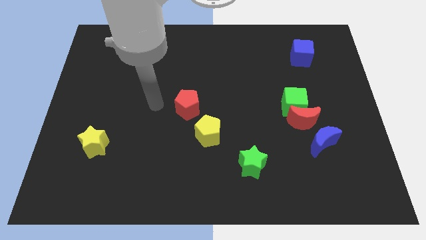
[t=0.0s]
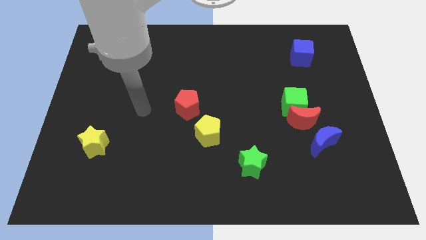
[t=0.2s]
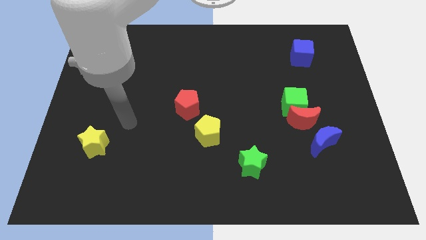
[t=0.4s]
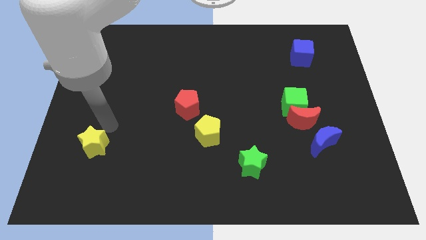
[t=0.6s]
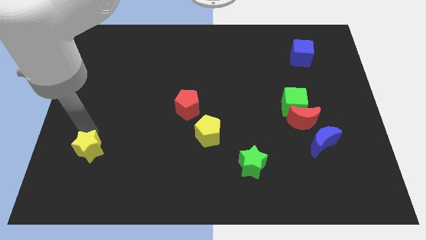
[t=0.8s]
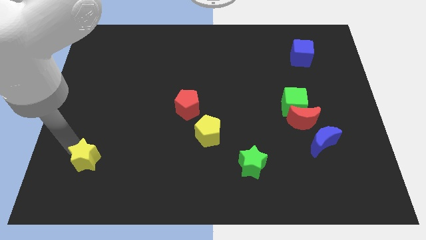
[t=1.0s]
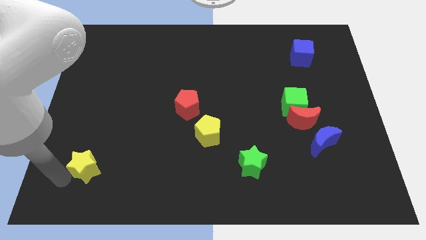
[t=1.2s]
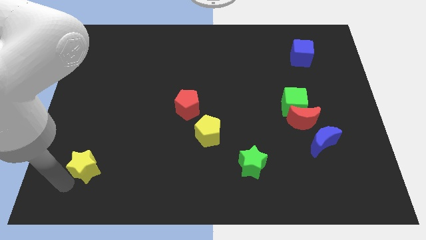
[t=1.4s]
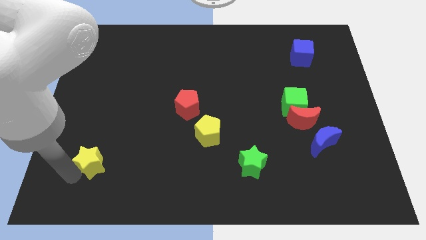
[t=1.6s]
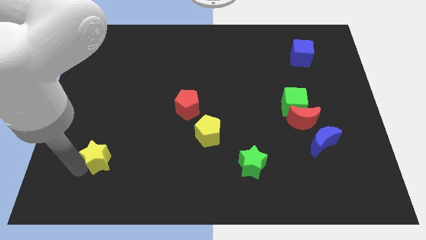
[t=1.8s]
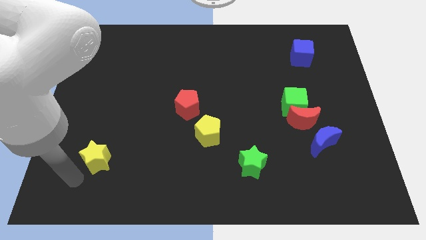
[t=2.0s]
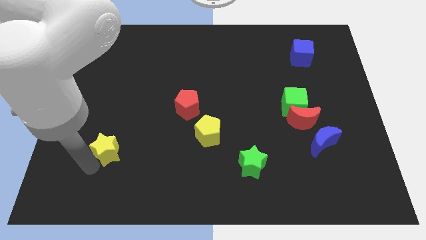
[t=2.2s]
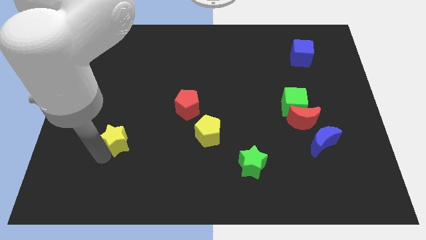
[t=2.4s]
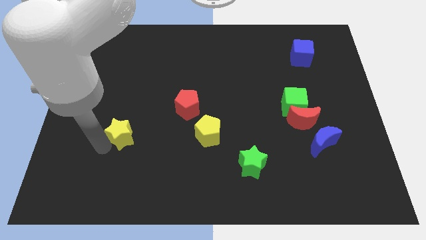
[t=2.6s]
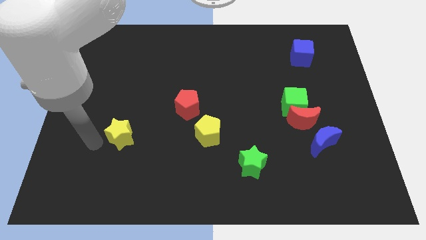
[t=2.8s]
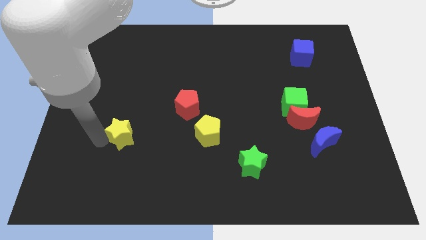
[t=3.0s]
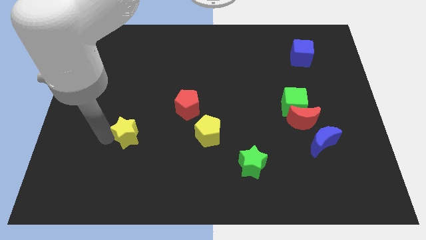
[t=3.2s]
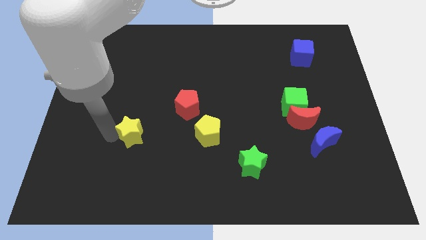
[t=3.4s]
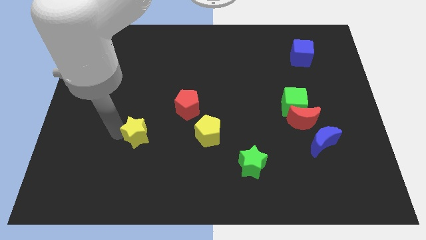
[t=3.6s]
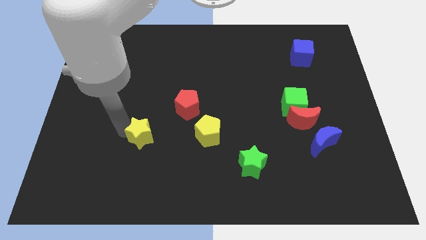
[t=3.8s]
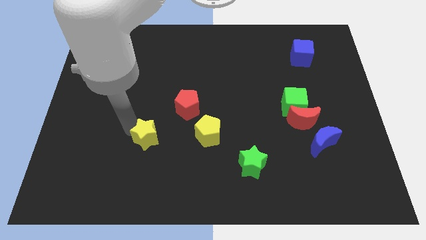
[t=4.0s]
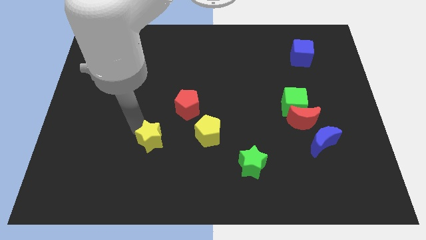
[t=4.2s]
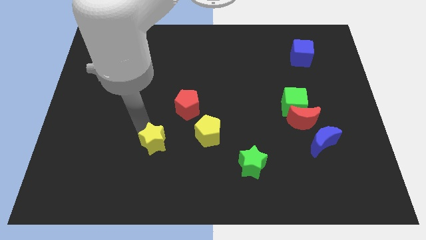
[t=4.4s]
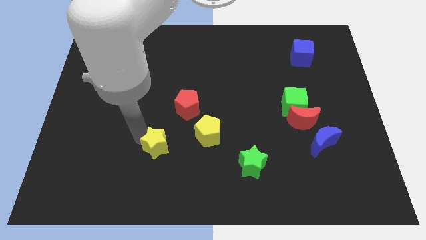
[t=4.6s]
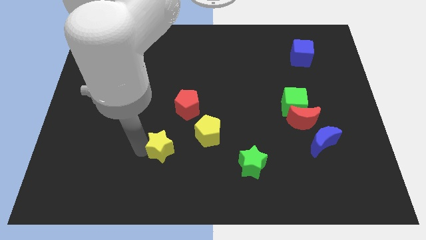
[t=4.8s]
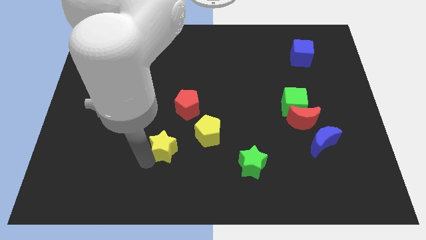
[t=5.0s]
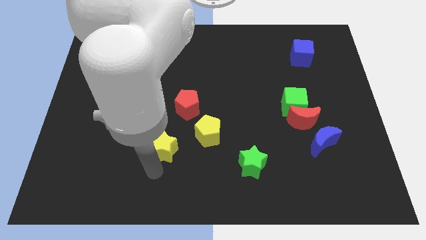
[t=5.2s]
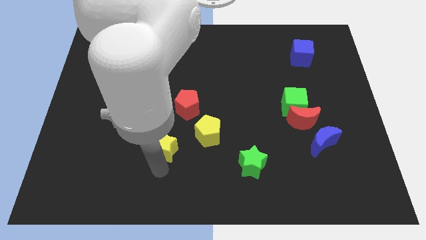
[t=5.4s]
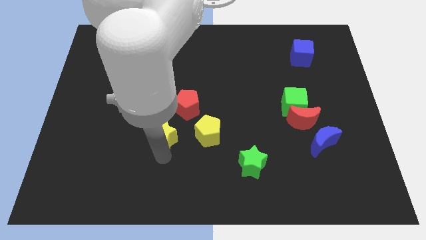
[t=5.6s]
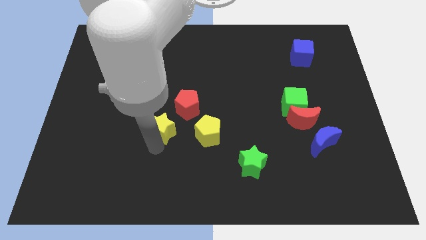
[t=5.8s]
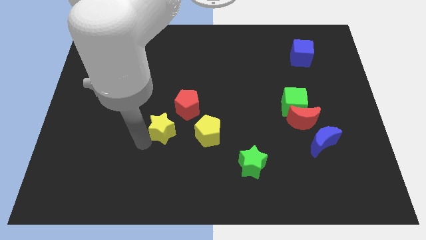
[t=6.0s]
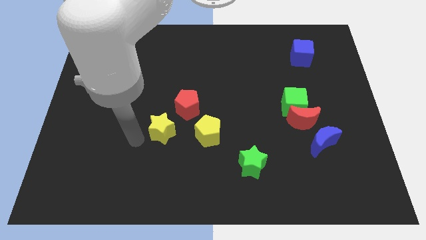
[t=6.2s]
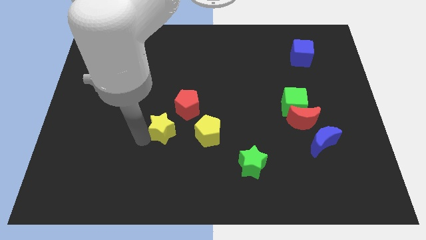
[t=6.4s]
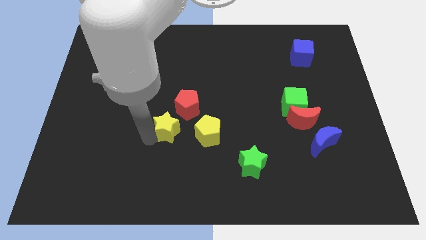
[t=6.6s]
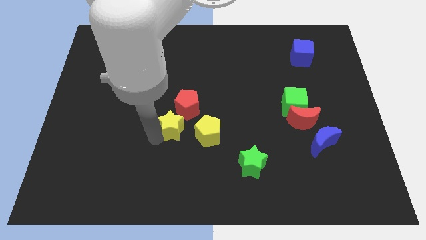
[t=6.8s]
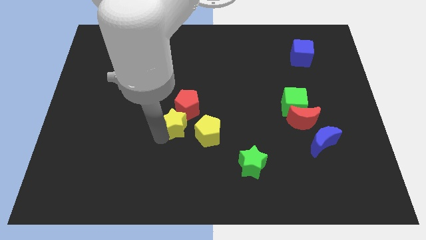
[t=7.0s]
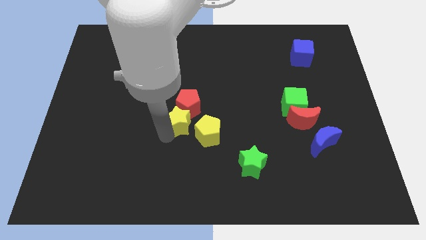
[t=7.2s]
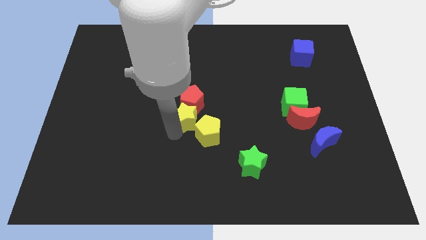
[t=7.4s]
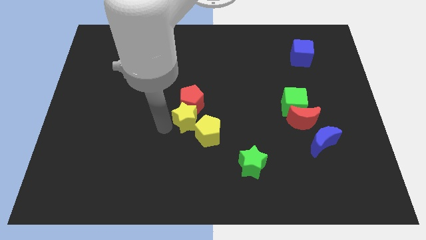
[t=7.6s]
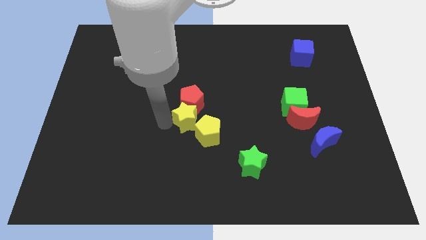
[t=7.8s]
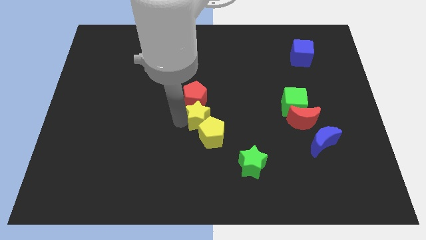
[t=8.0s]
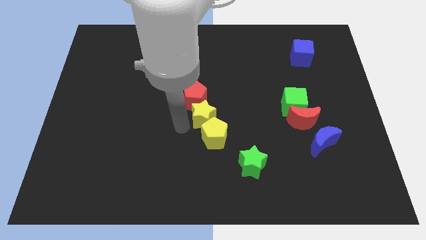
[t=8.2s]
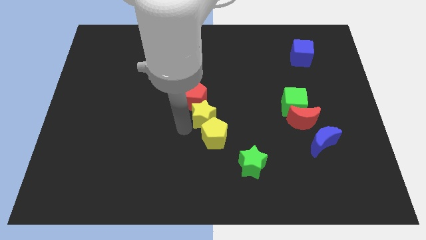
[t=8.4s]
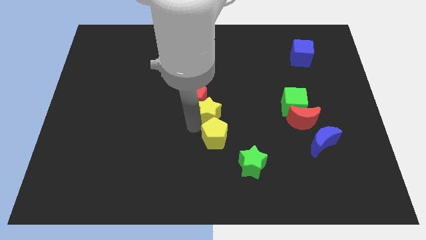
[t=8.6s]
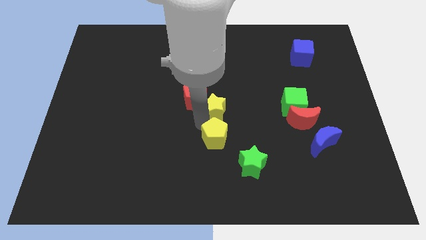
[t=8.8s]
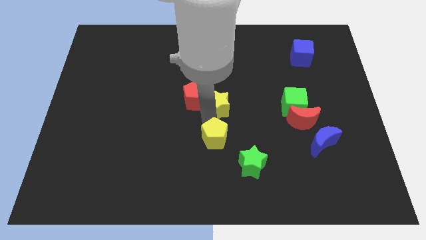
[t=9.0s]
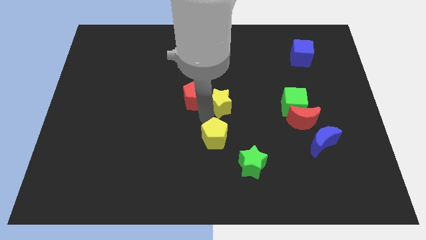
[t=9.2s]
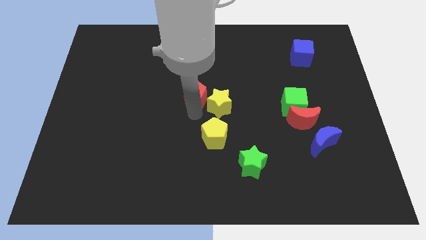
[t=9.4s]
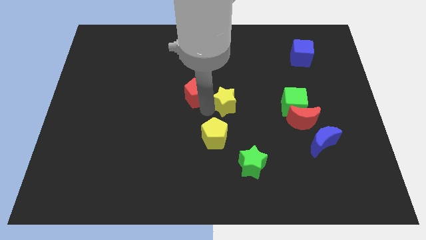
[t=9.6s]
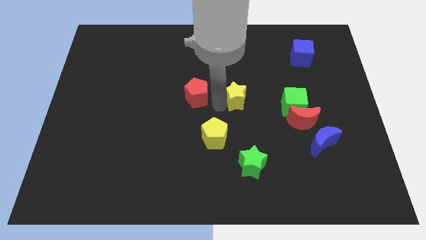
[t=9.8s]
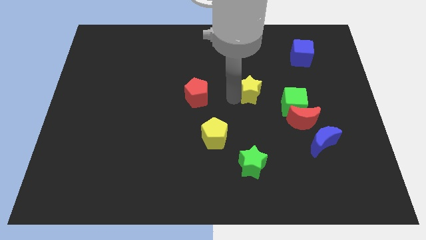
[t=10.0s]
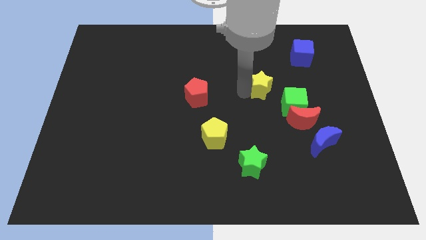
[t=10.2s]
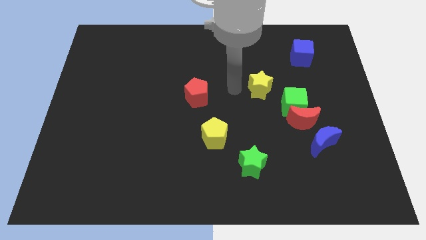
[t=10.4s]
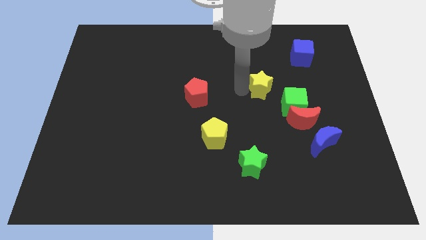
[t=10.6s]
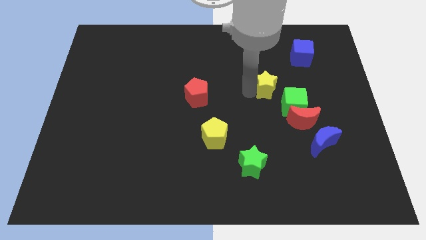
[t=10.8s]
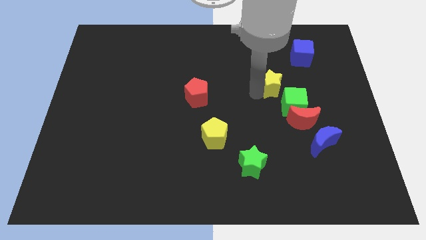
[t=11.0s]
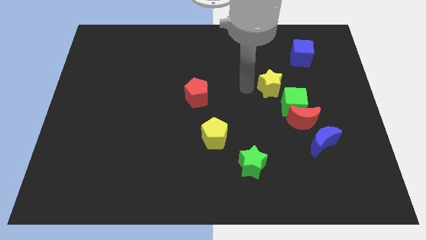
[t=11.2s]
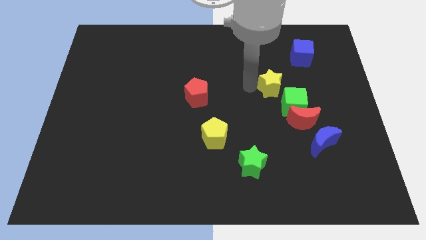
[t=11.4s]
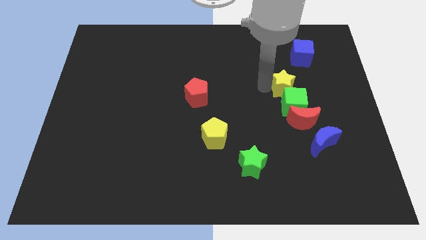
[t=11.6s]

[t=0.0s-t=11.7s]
put the yellow star above the red moon

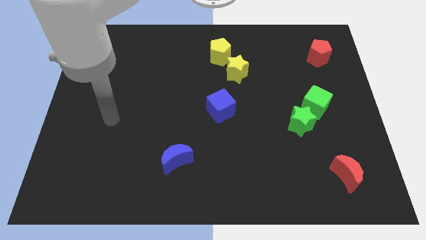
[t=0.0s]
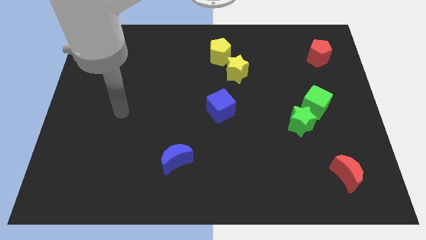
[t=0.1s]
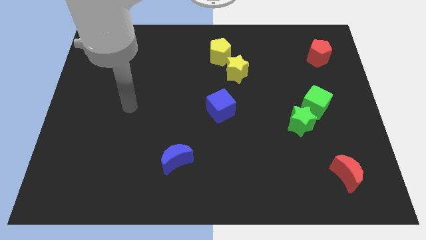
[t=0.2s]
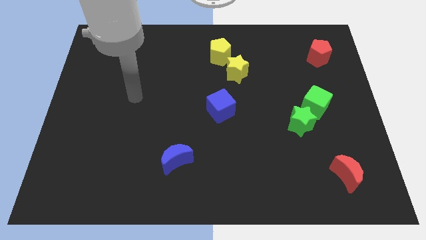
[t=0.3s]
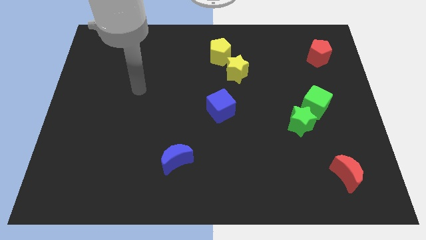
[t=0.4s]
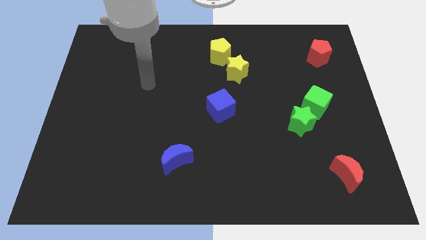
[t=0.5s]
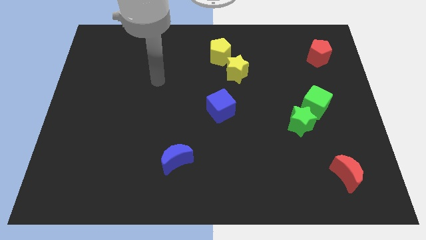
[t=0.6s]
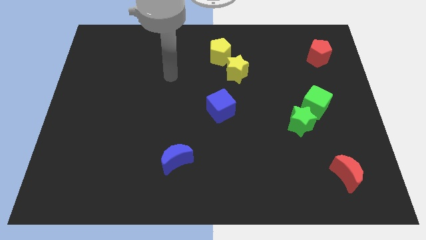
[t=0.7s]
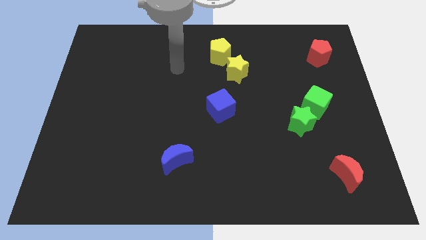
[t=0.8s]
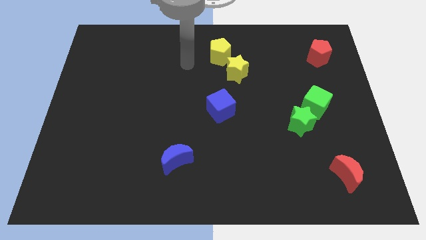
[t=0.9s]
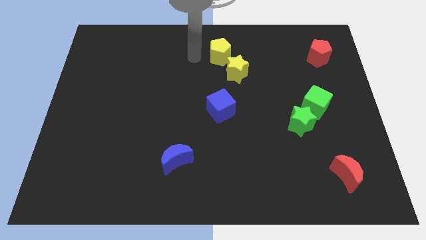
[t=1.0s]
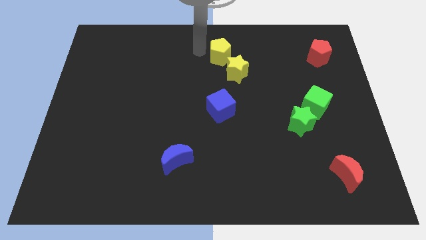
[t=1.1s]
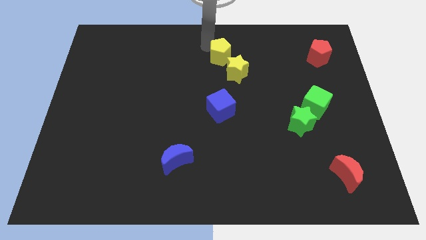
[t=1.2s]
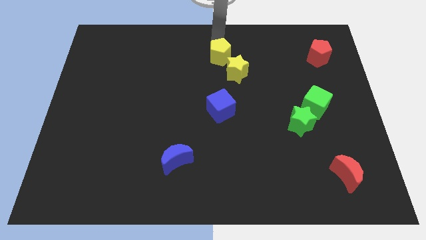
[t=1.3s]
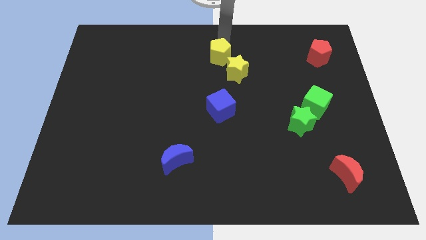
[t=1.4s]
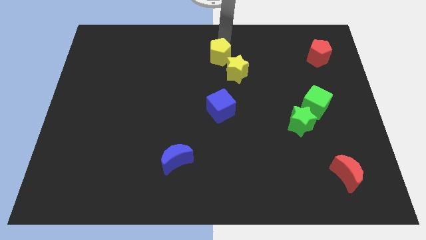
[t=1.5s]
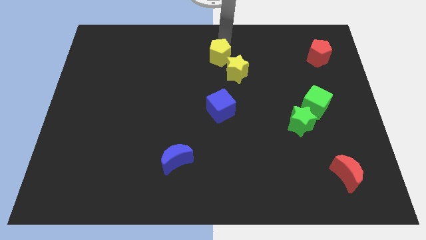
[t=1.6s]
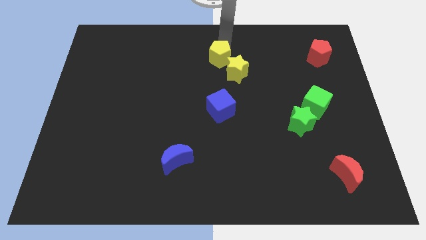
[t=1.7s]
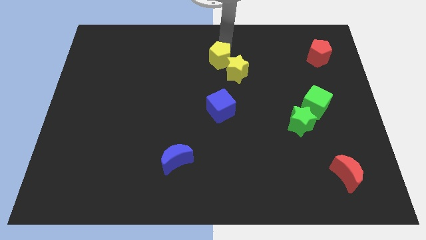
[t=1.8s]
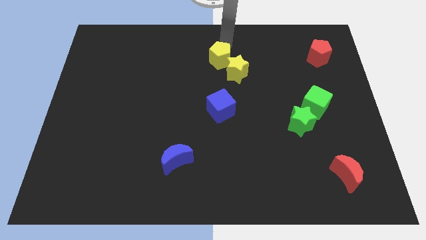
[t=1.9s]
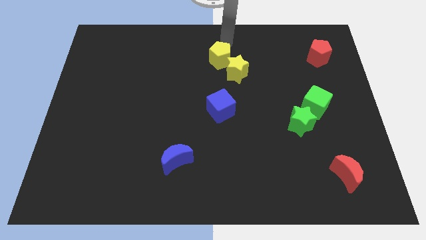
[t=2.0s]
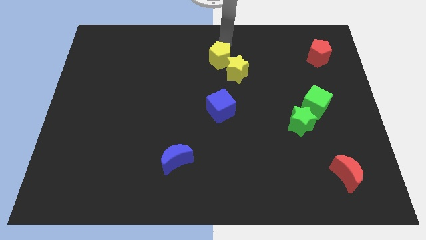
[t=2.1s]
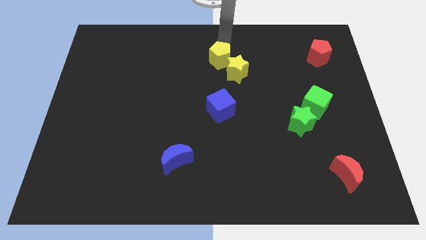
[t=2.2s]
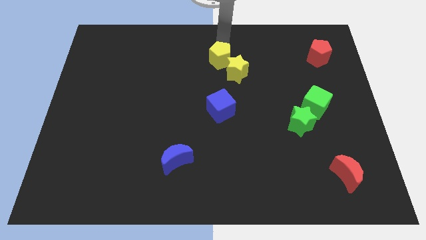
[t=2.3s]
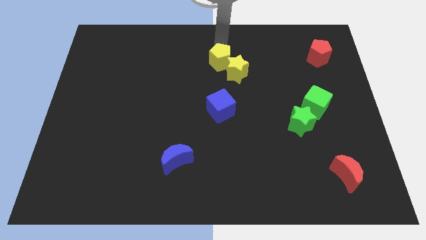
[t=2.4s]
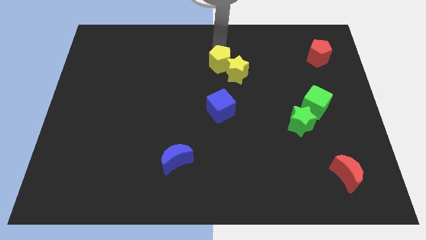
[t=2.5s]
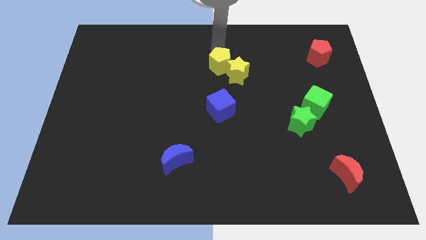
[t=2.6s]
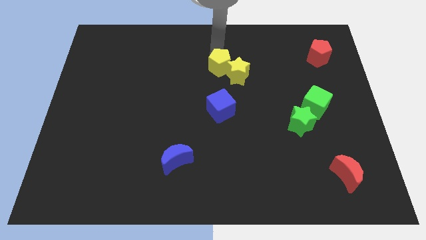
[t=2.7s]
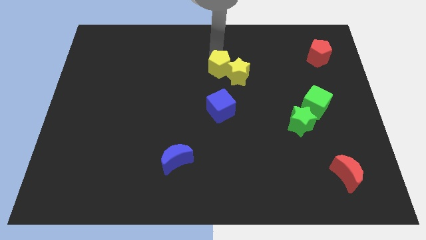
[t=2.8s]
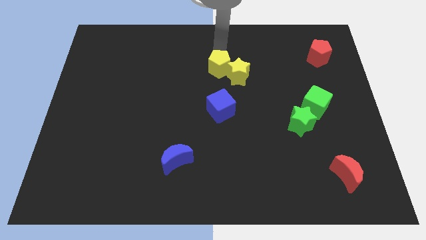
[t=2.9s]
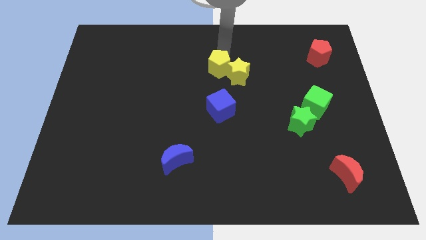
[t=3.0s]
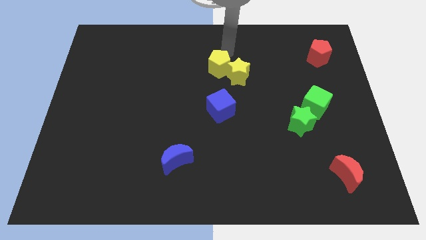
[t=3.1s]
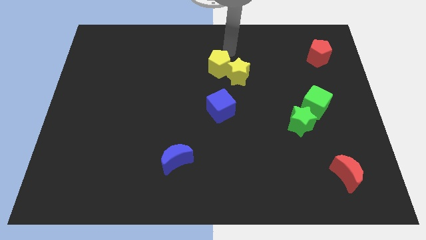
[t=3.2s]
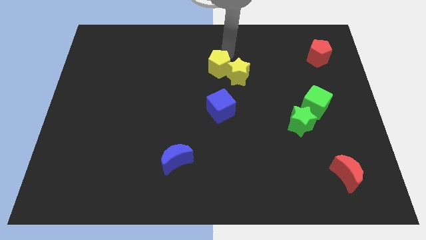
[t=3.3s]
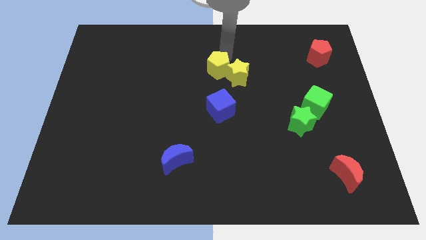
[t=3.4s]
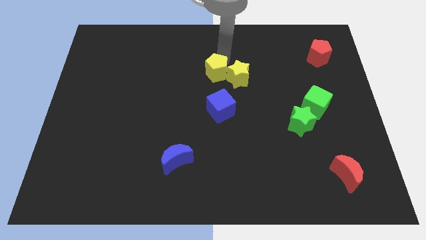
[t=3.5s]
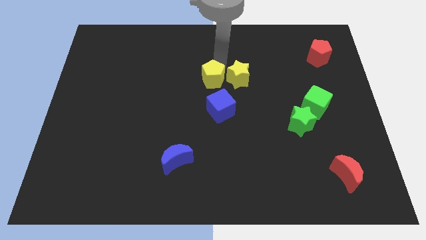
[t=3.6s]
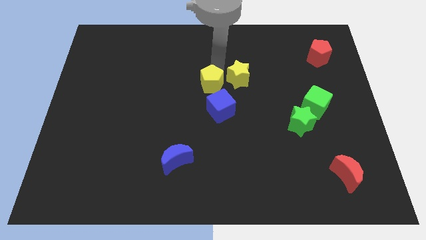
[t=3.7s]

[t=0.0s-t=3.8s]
put the yellow pentagon diagonally up and to the left of the blue cube
